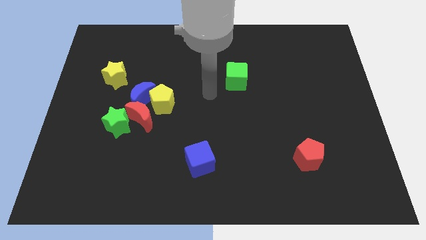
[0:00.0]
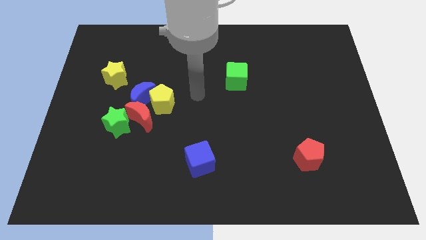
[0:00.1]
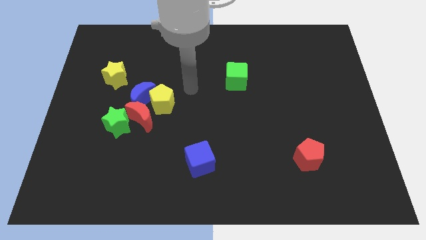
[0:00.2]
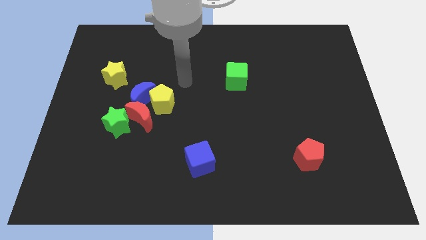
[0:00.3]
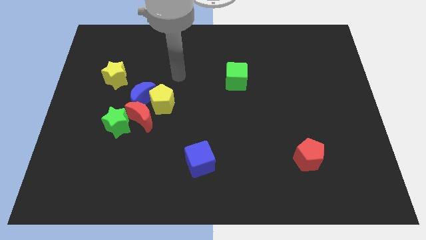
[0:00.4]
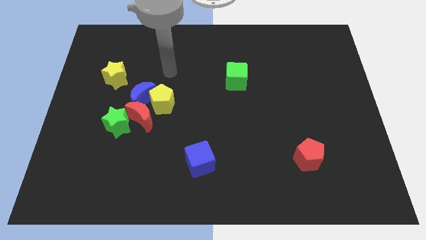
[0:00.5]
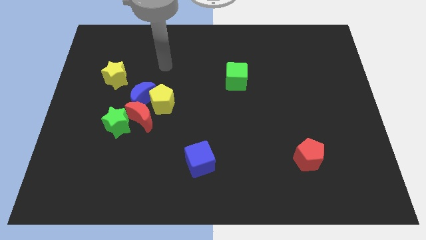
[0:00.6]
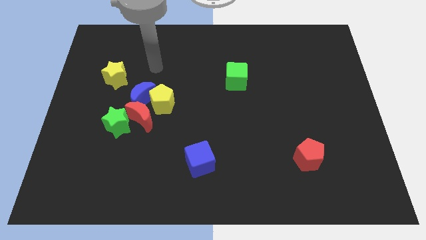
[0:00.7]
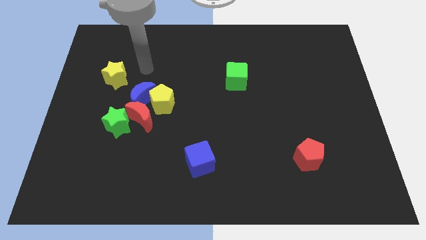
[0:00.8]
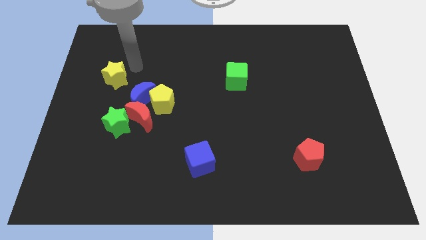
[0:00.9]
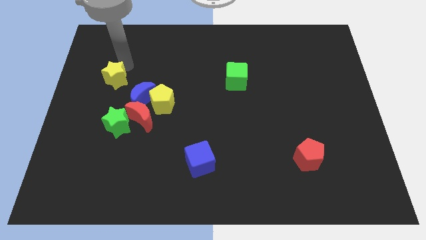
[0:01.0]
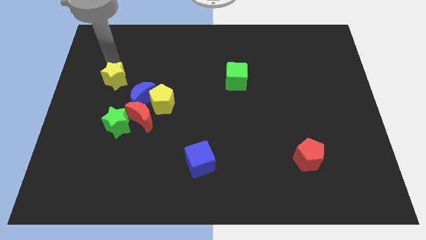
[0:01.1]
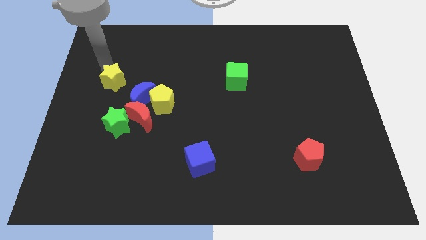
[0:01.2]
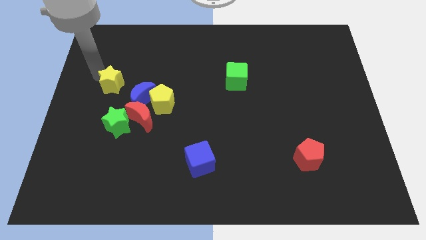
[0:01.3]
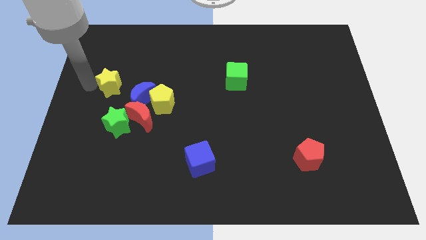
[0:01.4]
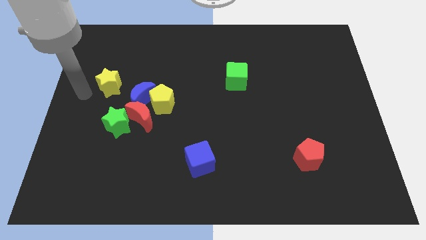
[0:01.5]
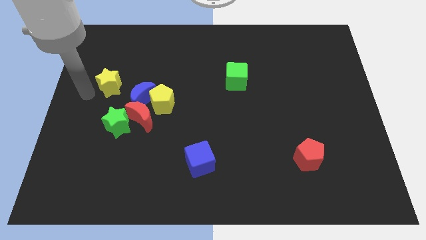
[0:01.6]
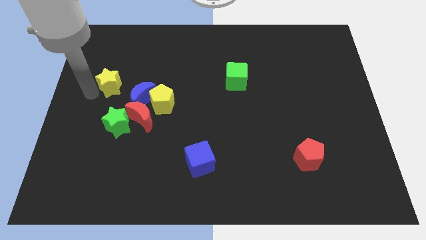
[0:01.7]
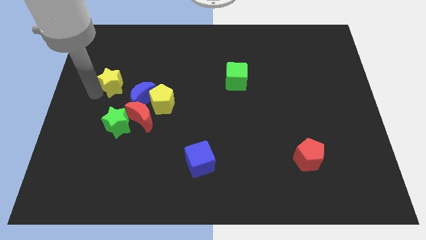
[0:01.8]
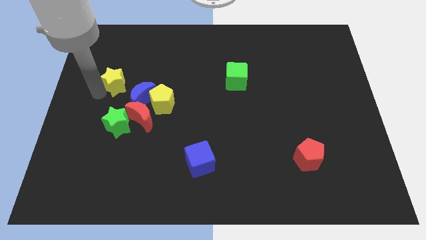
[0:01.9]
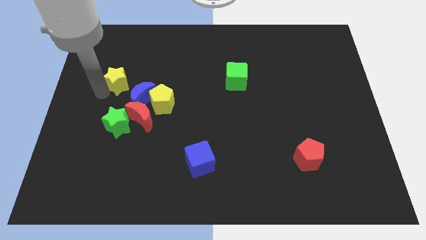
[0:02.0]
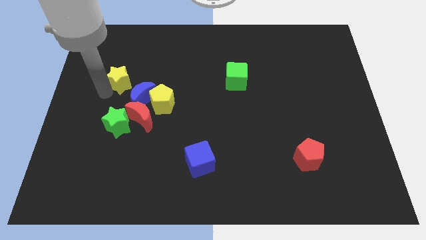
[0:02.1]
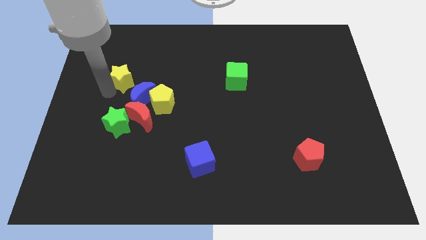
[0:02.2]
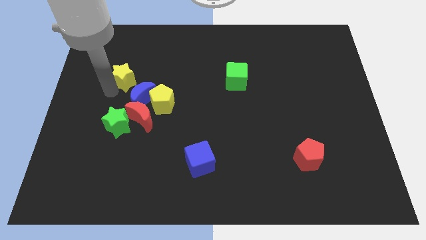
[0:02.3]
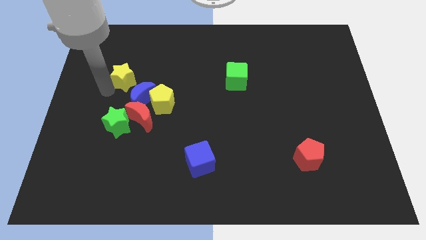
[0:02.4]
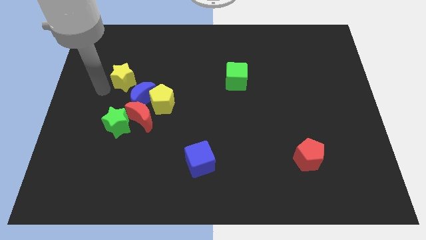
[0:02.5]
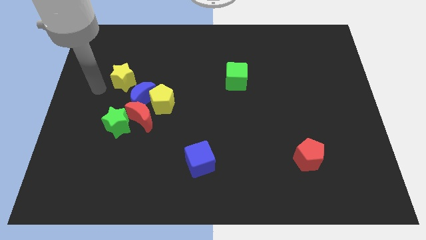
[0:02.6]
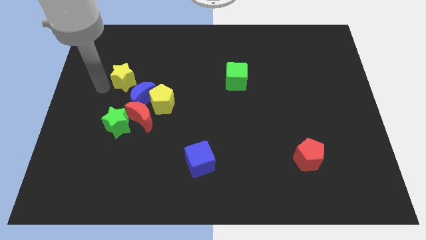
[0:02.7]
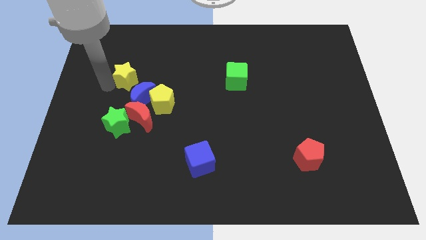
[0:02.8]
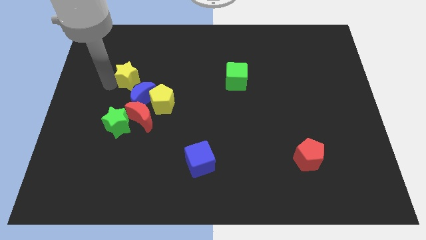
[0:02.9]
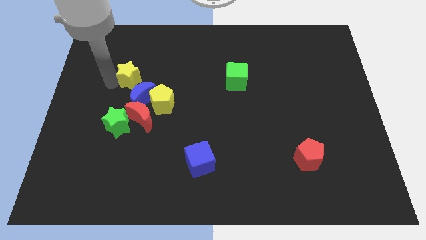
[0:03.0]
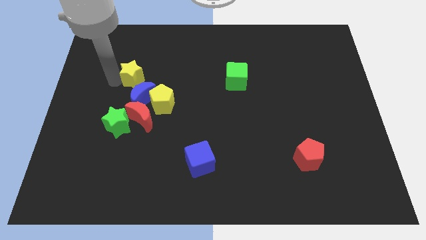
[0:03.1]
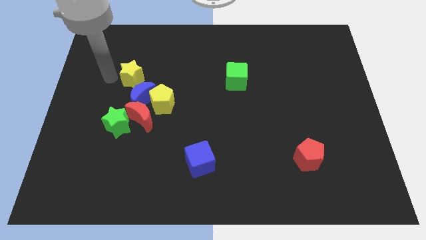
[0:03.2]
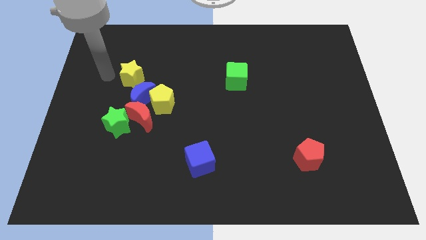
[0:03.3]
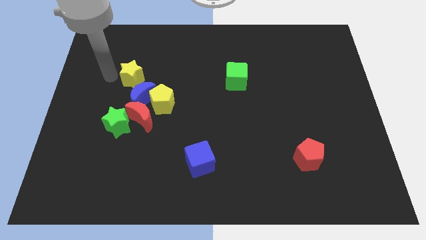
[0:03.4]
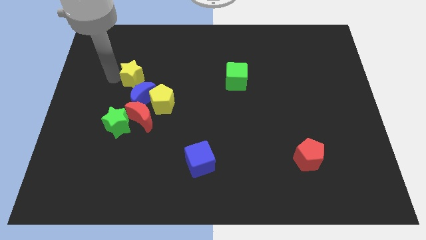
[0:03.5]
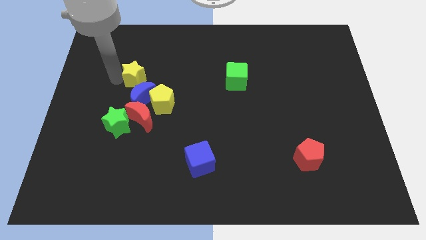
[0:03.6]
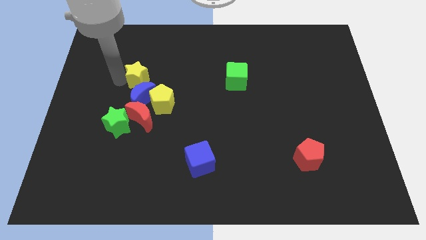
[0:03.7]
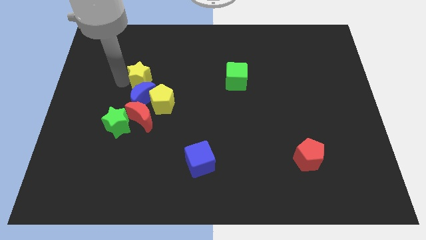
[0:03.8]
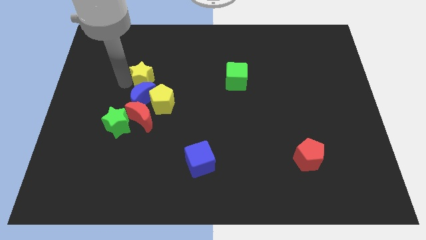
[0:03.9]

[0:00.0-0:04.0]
push the yellow star to the top right side of the blue moon

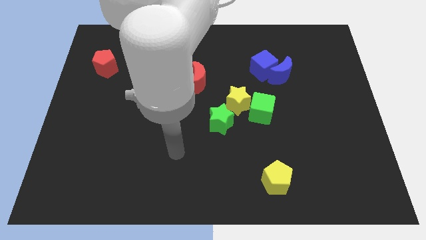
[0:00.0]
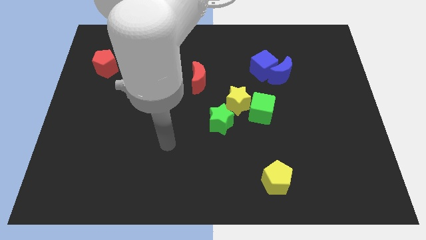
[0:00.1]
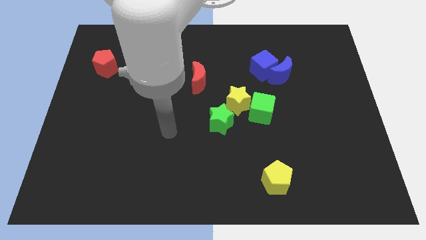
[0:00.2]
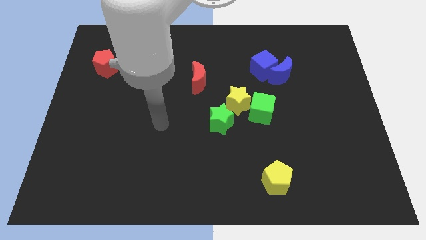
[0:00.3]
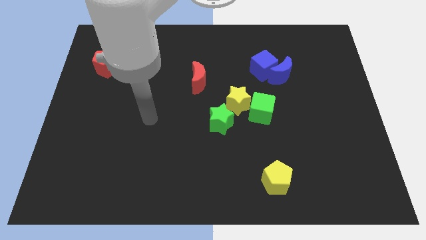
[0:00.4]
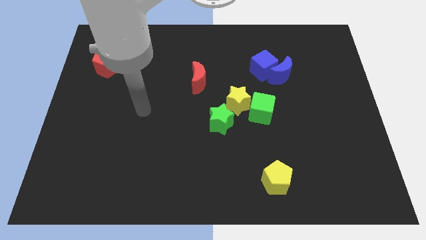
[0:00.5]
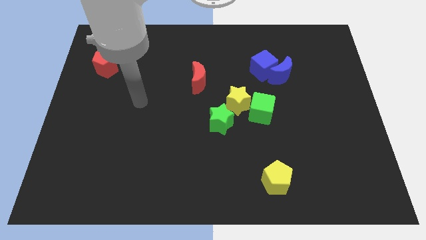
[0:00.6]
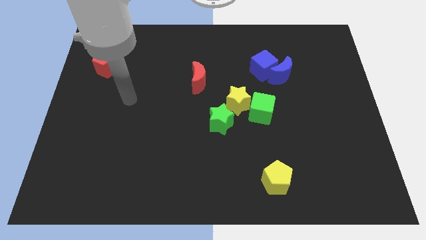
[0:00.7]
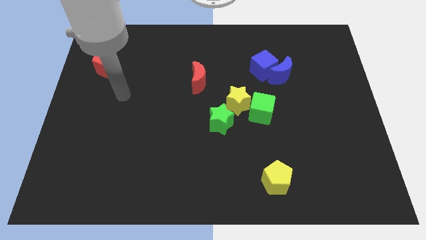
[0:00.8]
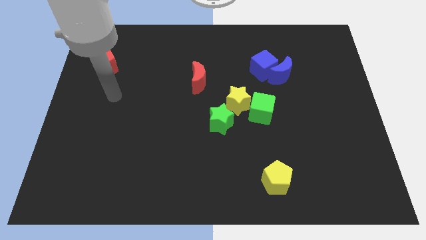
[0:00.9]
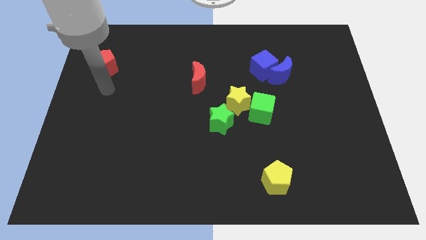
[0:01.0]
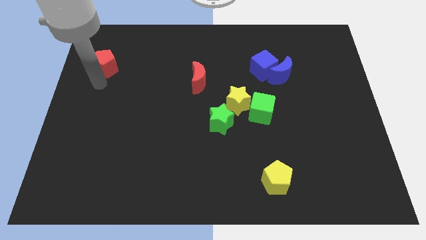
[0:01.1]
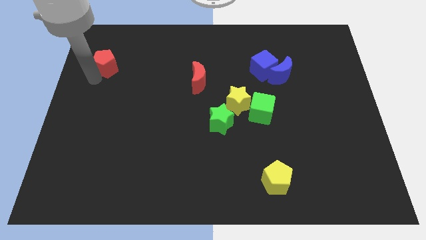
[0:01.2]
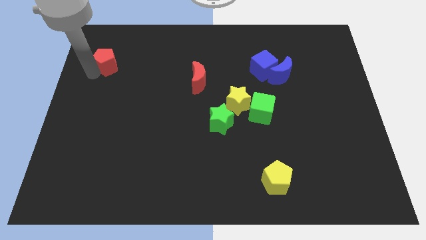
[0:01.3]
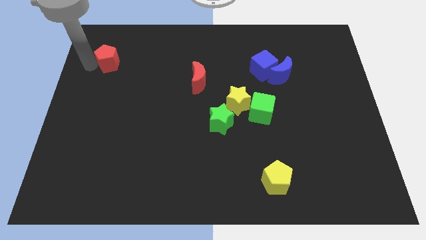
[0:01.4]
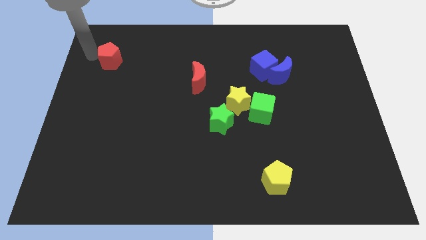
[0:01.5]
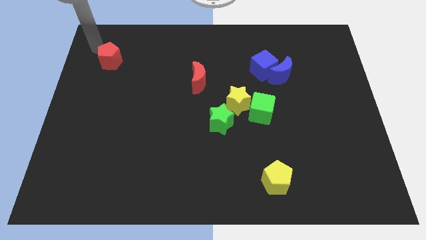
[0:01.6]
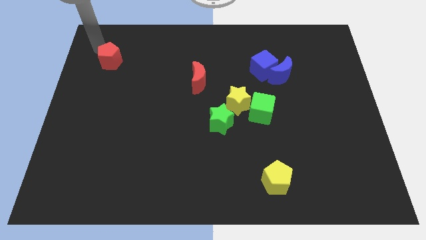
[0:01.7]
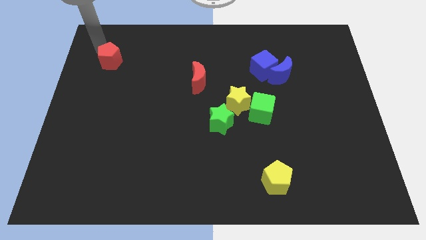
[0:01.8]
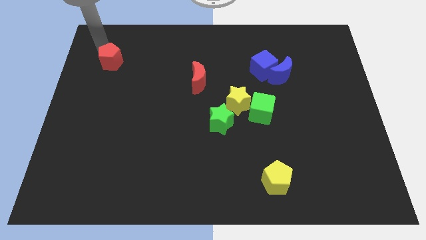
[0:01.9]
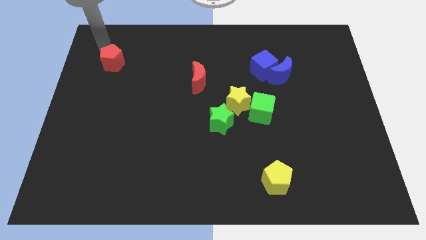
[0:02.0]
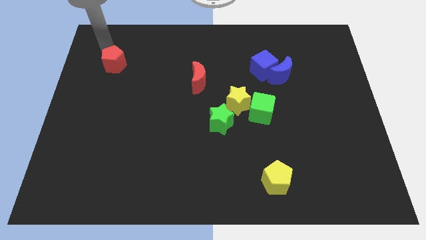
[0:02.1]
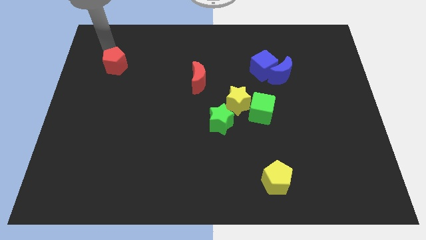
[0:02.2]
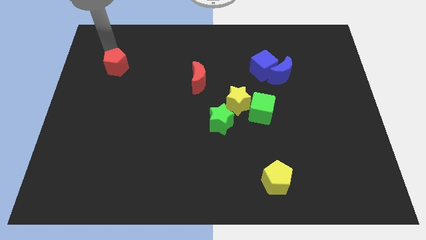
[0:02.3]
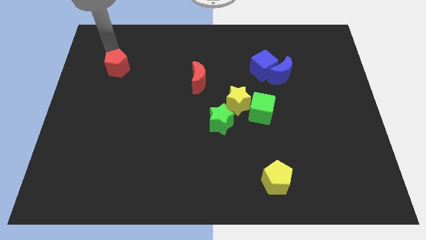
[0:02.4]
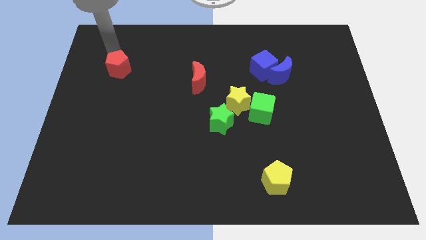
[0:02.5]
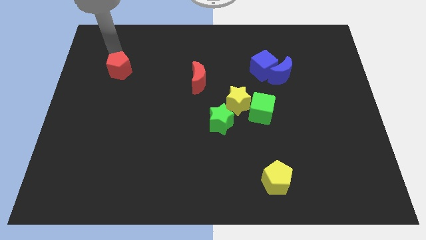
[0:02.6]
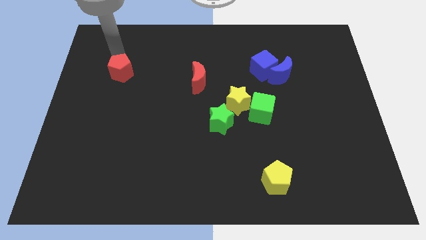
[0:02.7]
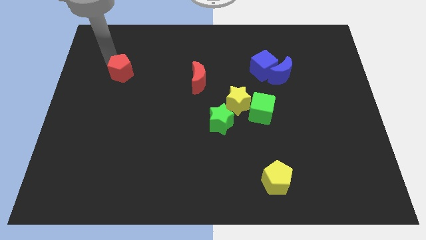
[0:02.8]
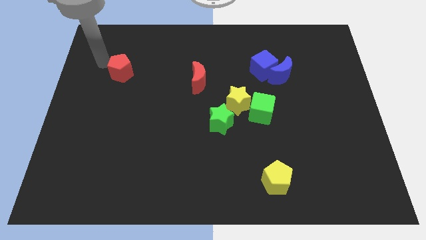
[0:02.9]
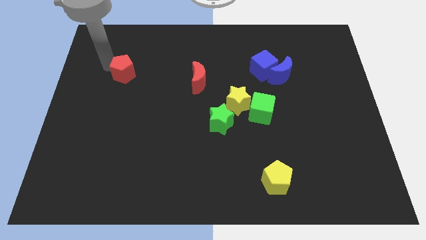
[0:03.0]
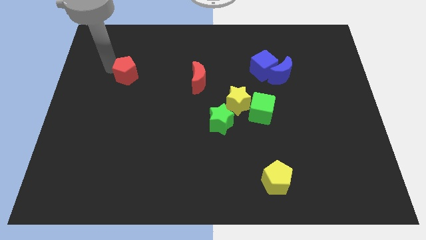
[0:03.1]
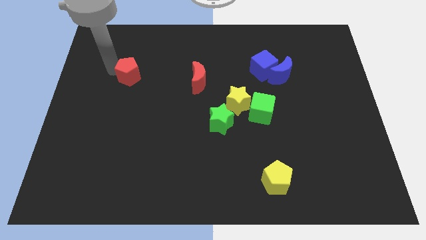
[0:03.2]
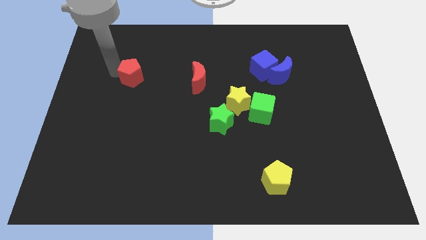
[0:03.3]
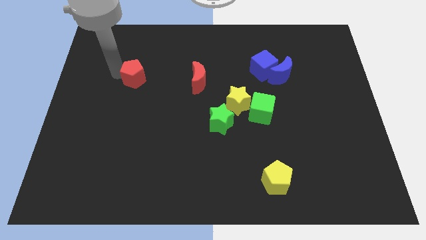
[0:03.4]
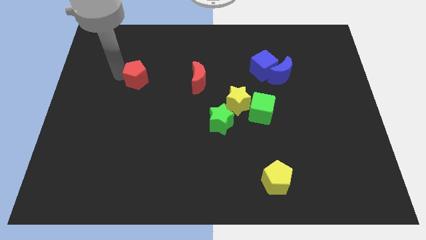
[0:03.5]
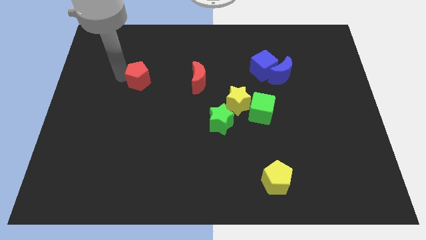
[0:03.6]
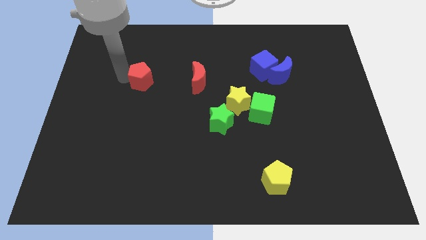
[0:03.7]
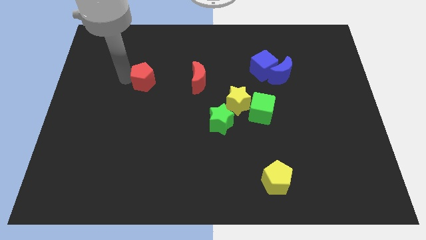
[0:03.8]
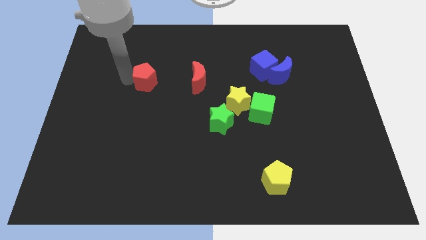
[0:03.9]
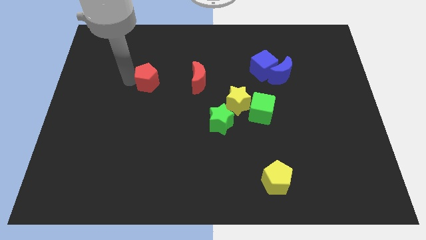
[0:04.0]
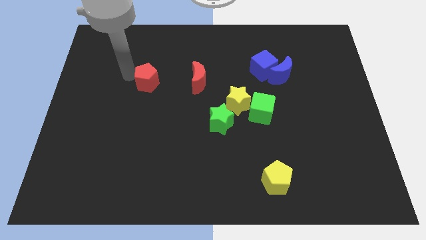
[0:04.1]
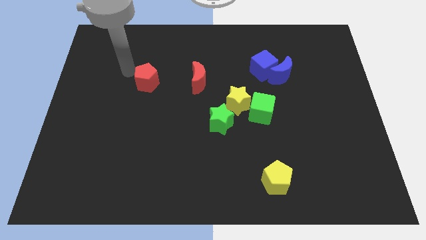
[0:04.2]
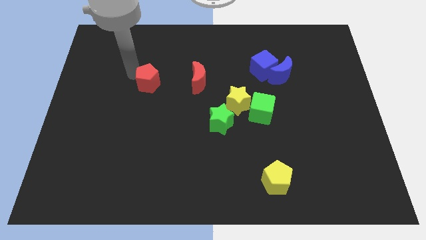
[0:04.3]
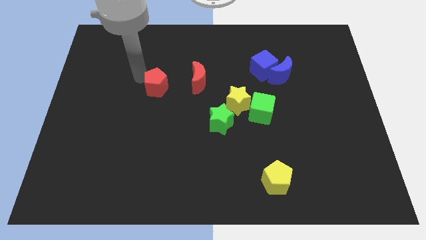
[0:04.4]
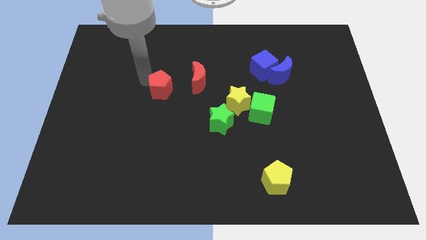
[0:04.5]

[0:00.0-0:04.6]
push the red pentagon diagonally down and to the left of the red moon
